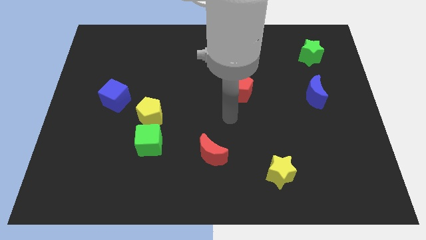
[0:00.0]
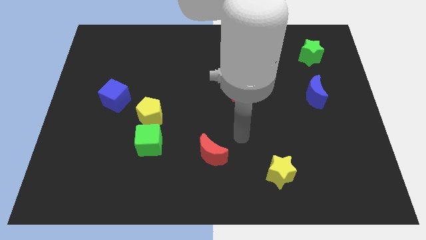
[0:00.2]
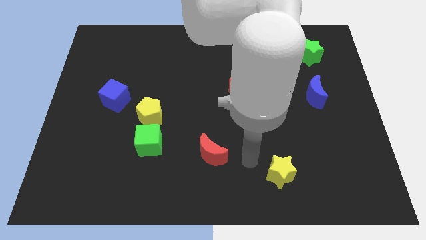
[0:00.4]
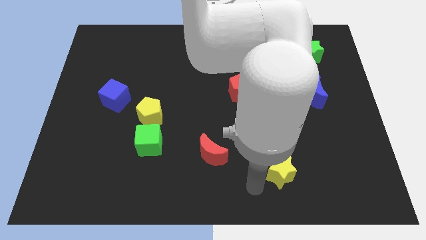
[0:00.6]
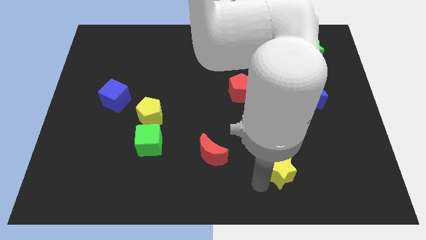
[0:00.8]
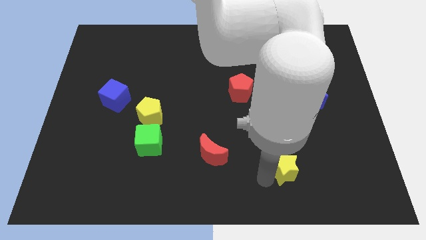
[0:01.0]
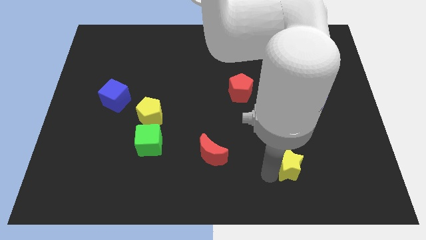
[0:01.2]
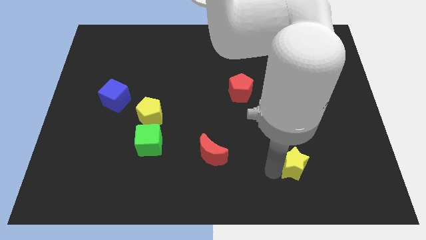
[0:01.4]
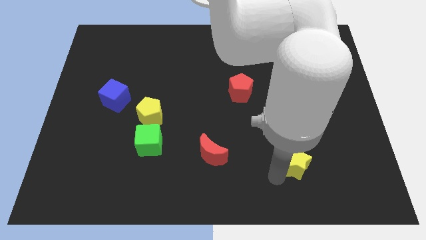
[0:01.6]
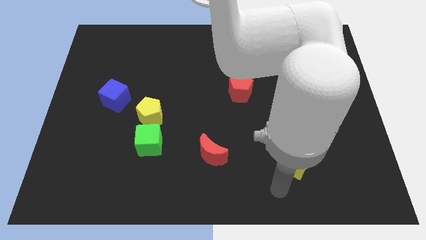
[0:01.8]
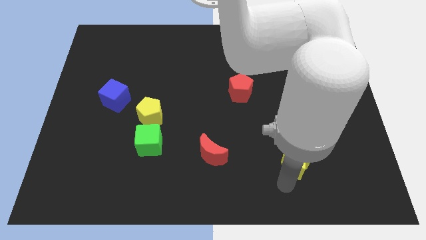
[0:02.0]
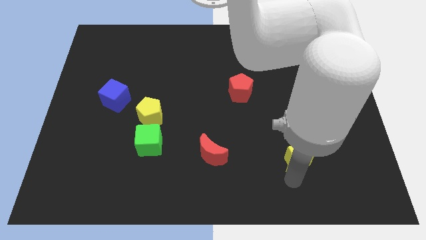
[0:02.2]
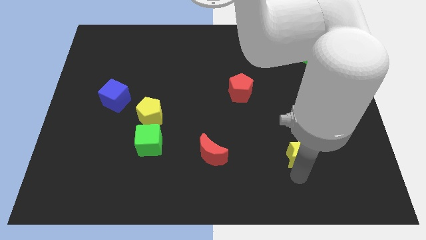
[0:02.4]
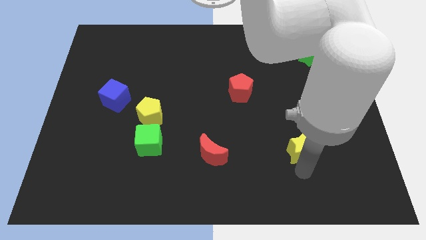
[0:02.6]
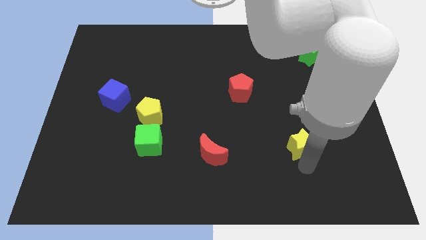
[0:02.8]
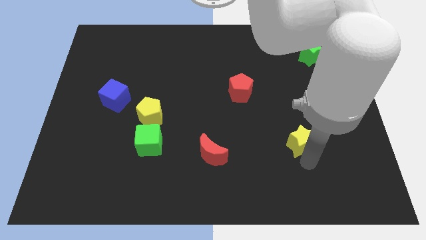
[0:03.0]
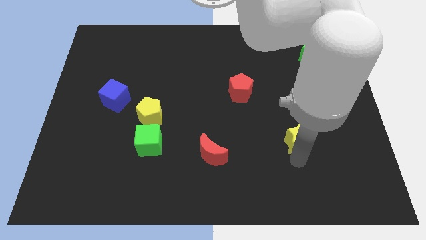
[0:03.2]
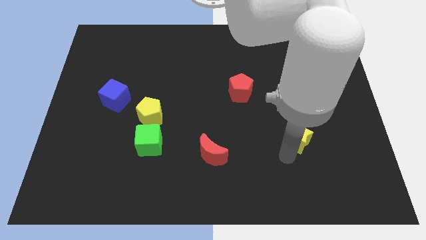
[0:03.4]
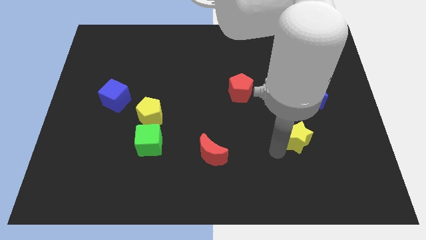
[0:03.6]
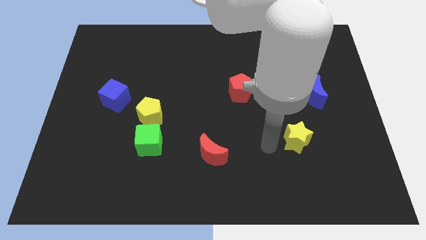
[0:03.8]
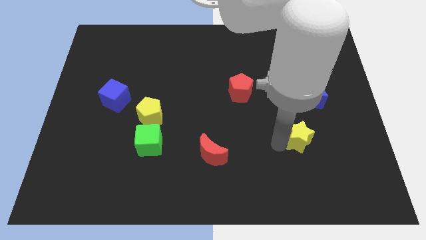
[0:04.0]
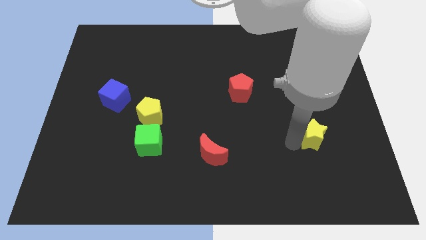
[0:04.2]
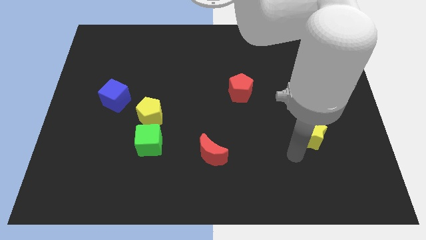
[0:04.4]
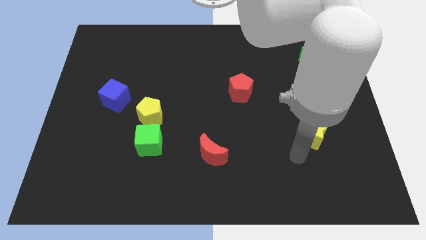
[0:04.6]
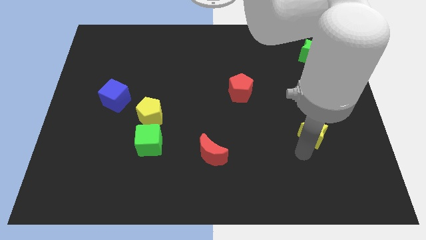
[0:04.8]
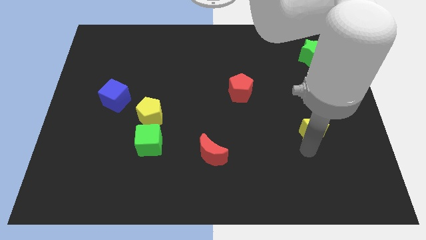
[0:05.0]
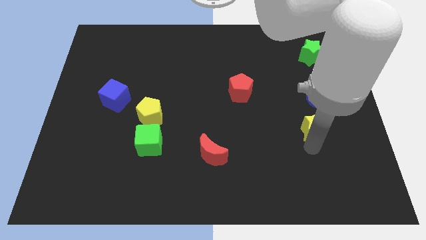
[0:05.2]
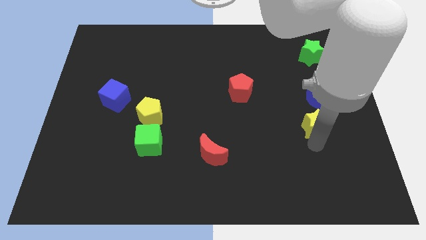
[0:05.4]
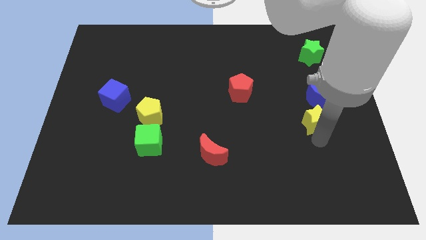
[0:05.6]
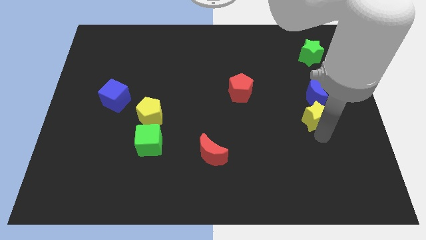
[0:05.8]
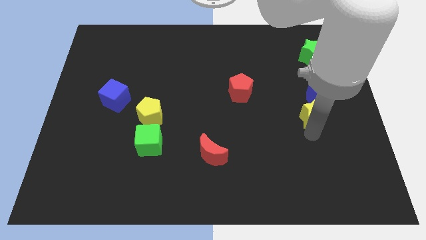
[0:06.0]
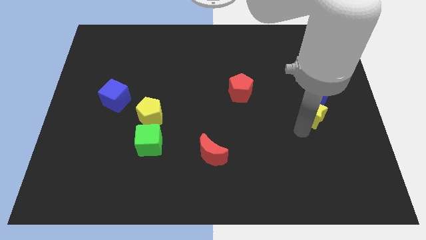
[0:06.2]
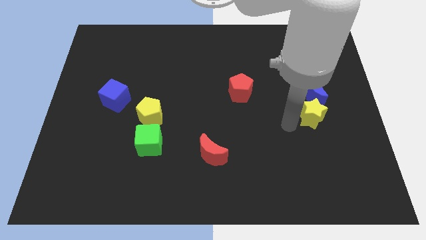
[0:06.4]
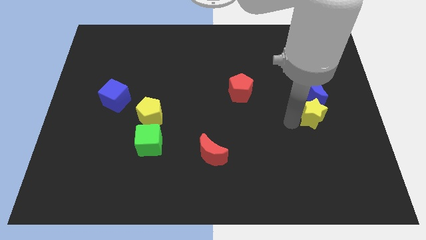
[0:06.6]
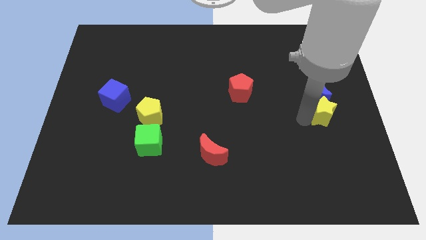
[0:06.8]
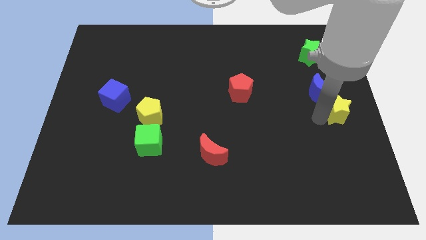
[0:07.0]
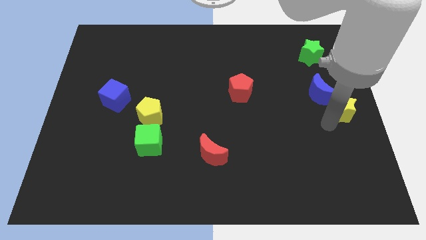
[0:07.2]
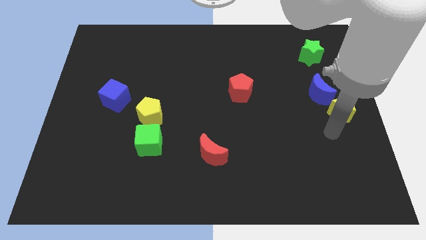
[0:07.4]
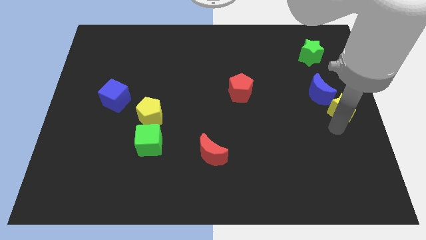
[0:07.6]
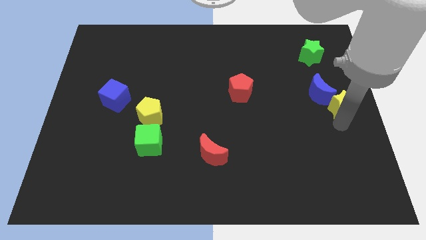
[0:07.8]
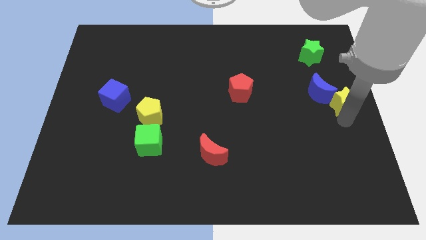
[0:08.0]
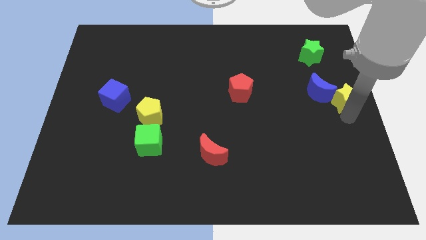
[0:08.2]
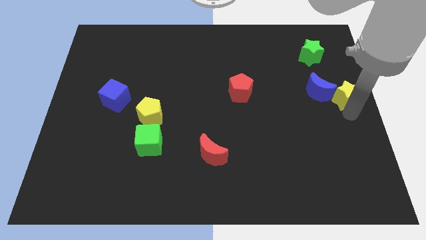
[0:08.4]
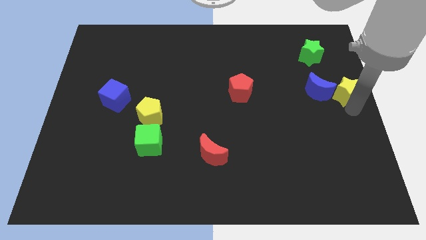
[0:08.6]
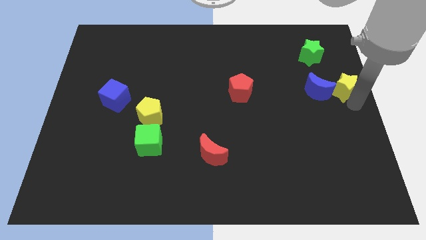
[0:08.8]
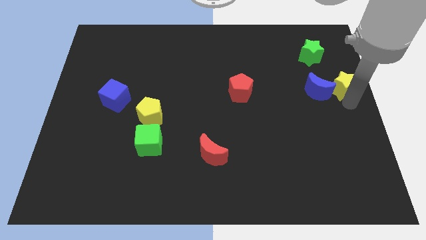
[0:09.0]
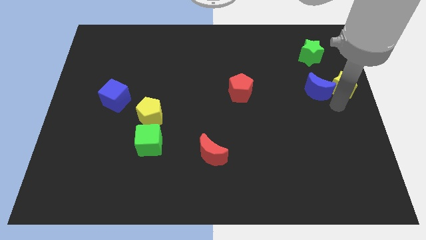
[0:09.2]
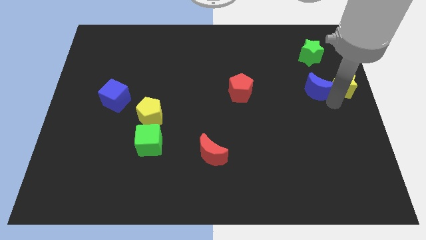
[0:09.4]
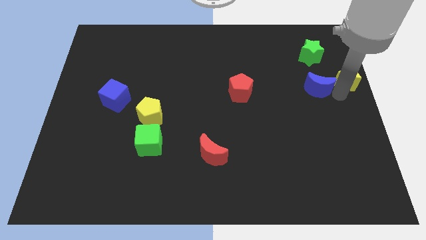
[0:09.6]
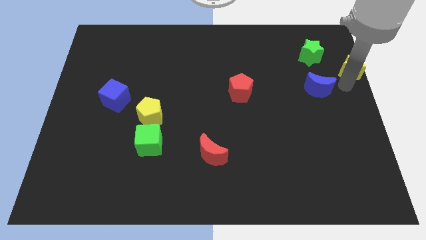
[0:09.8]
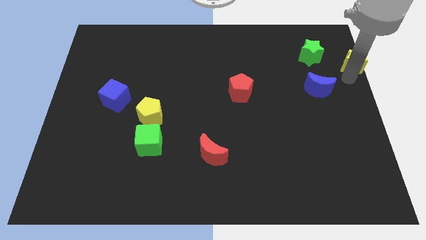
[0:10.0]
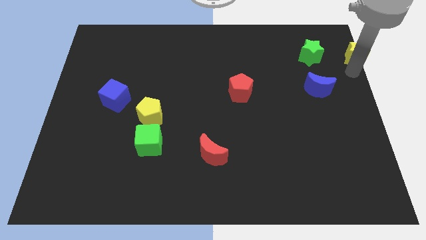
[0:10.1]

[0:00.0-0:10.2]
push the yellow star to the top right corner

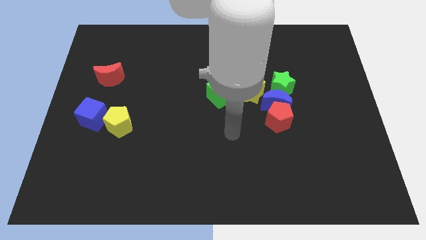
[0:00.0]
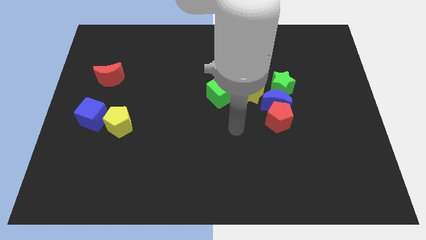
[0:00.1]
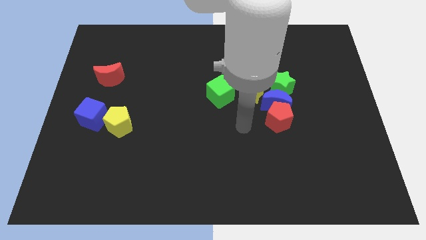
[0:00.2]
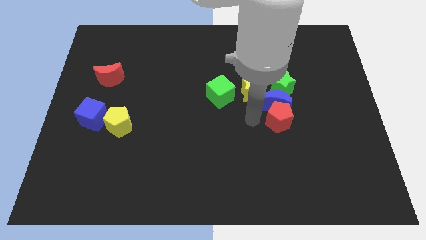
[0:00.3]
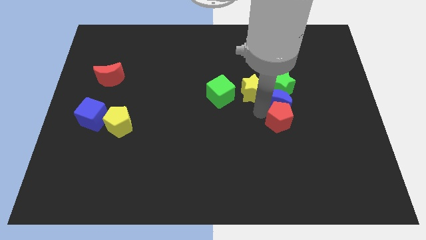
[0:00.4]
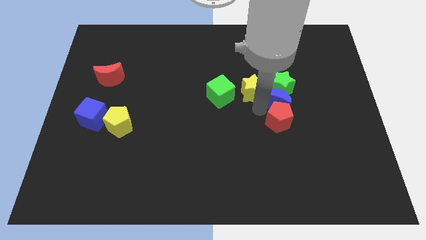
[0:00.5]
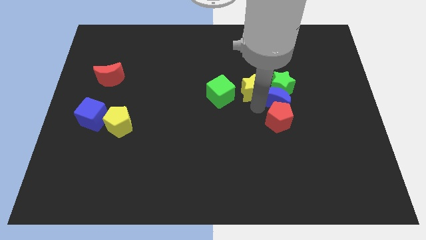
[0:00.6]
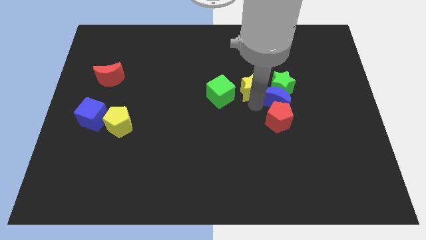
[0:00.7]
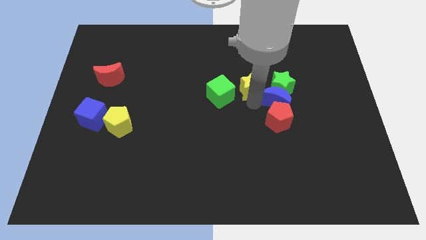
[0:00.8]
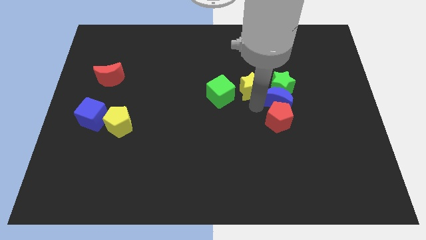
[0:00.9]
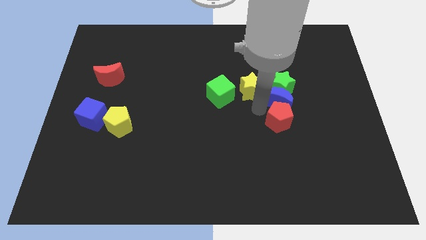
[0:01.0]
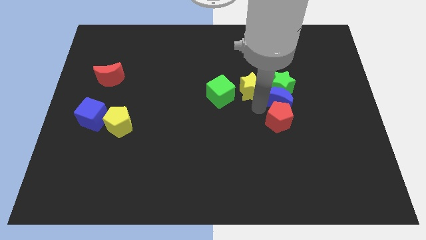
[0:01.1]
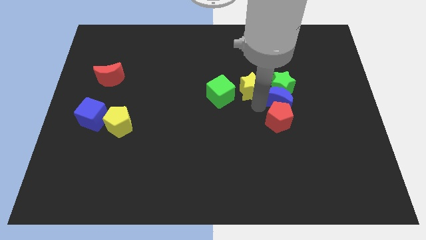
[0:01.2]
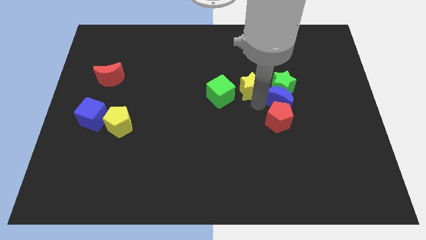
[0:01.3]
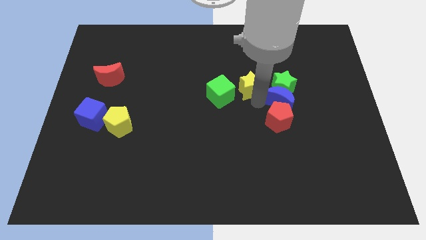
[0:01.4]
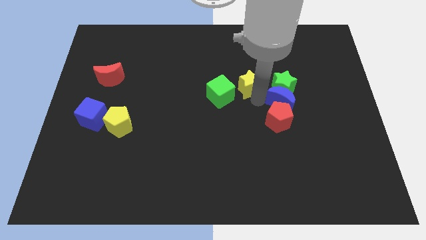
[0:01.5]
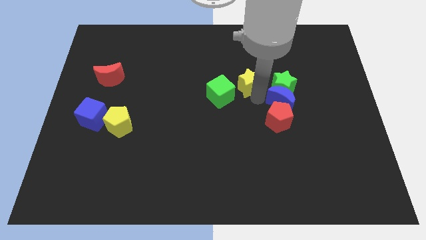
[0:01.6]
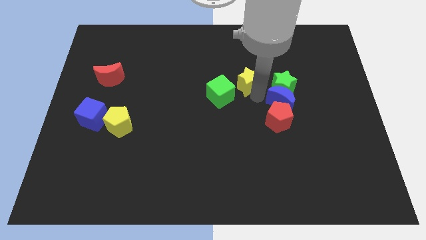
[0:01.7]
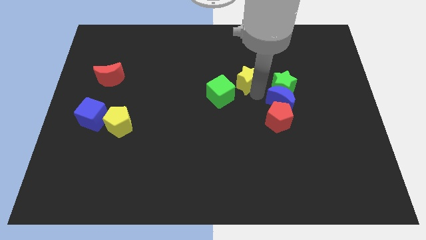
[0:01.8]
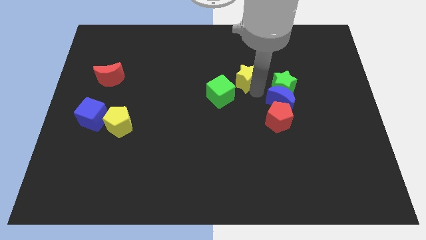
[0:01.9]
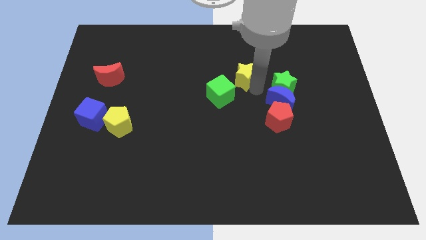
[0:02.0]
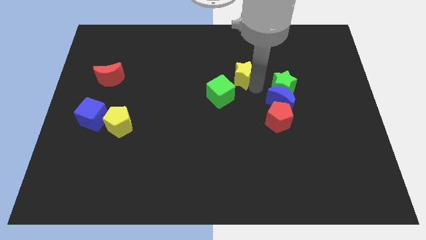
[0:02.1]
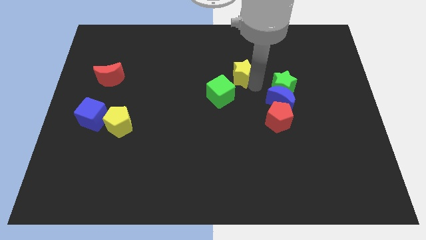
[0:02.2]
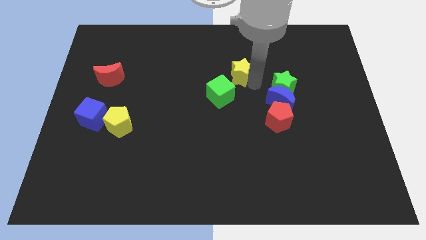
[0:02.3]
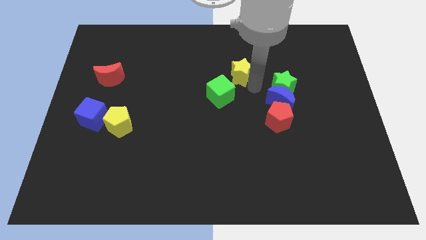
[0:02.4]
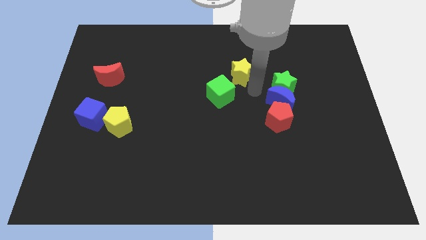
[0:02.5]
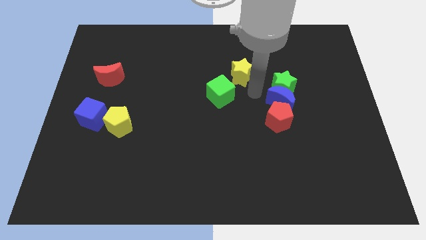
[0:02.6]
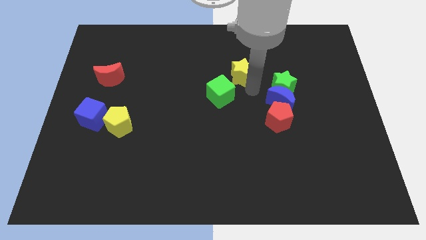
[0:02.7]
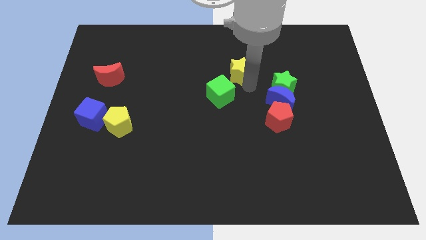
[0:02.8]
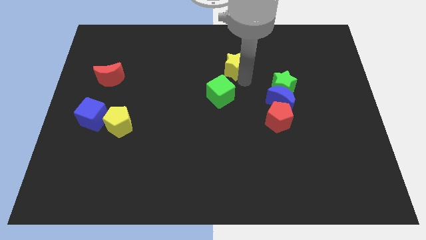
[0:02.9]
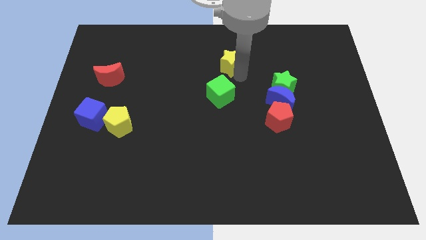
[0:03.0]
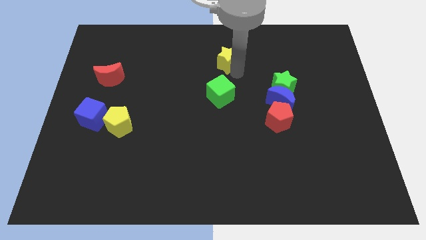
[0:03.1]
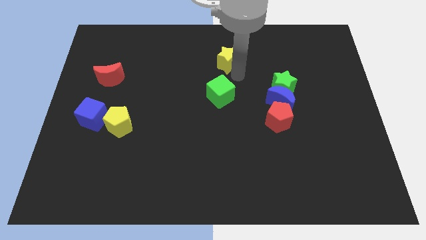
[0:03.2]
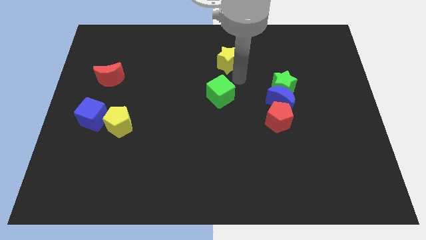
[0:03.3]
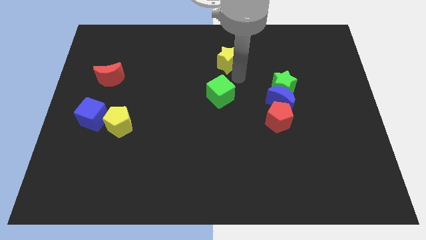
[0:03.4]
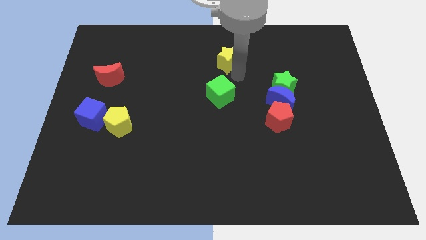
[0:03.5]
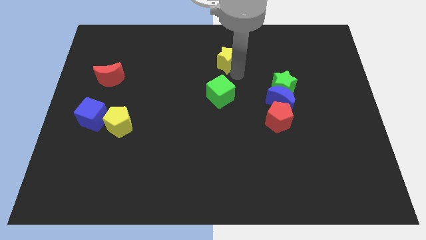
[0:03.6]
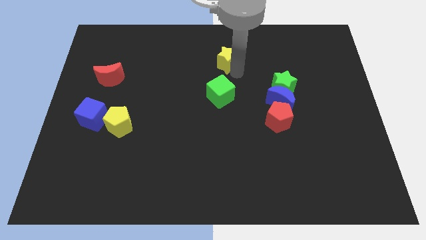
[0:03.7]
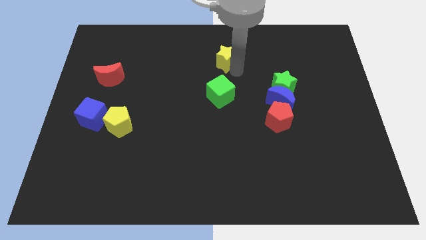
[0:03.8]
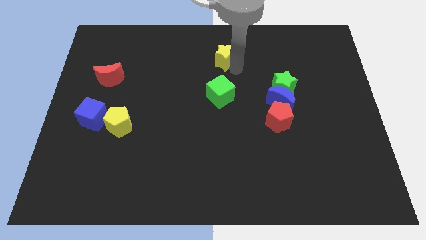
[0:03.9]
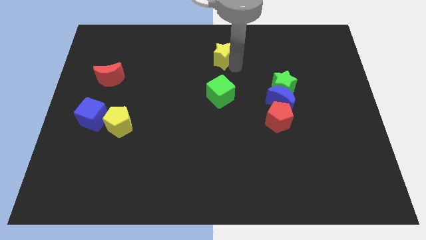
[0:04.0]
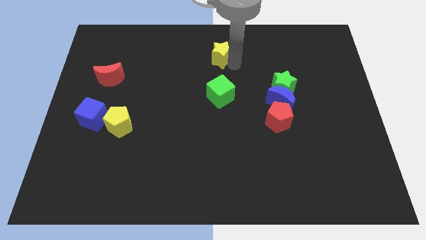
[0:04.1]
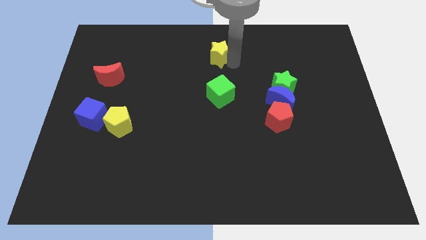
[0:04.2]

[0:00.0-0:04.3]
slide the yellow star to the towards your base
